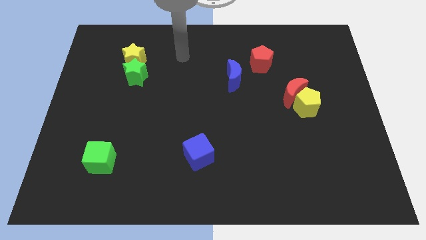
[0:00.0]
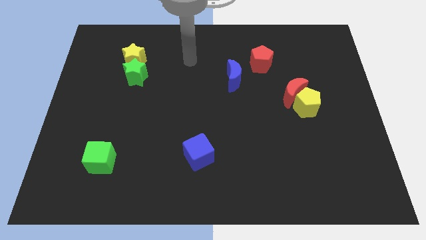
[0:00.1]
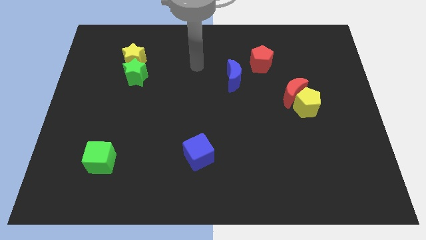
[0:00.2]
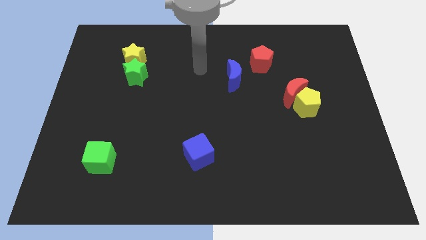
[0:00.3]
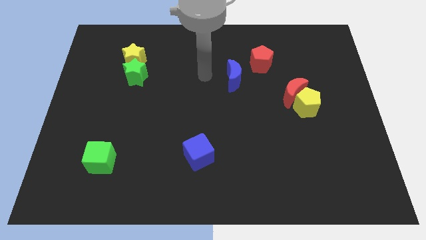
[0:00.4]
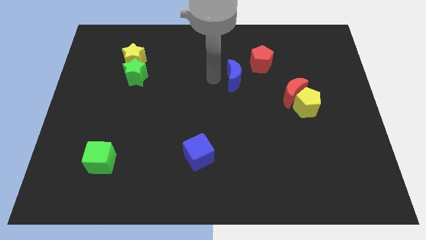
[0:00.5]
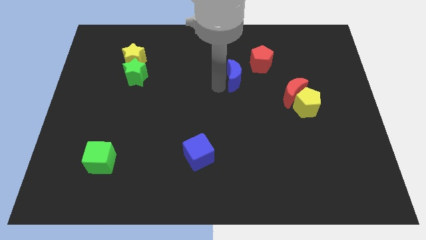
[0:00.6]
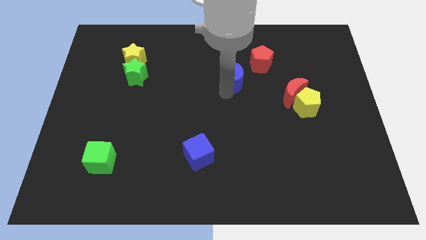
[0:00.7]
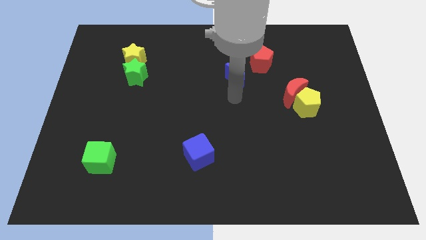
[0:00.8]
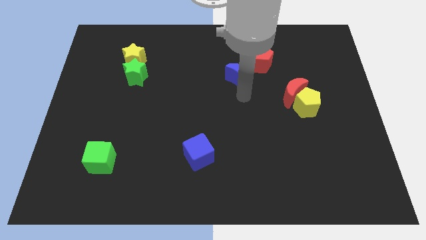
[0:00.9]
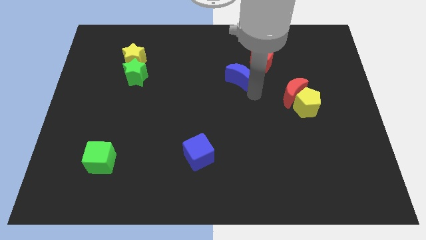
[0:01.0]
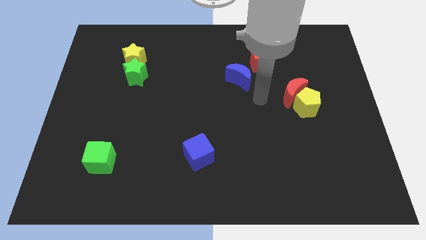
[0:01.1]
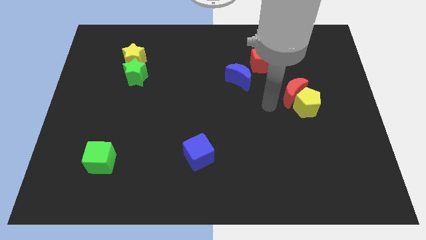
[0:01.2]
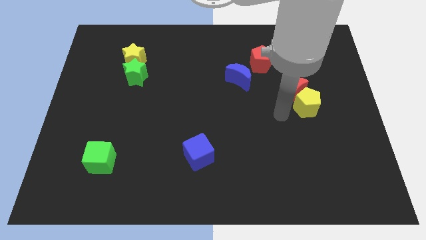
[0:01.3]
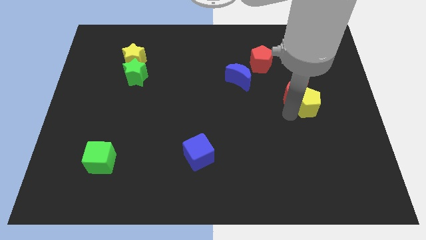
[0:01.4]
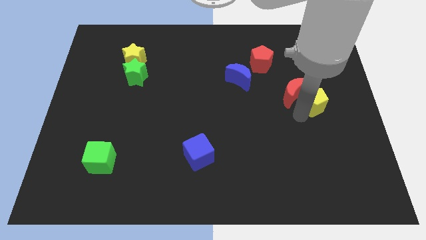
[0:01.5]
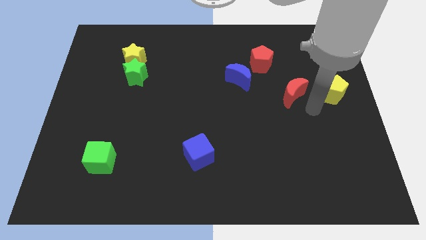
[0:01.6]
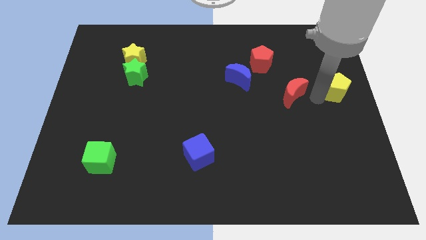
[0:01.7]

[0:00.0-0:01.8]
move the red moon away from the yellow pentagon

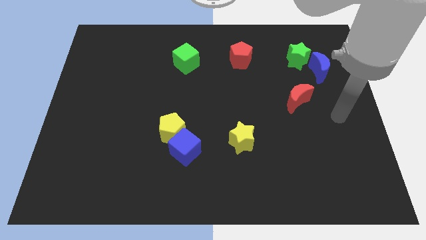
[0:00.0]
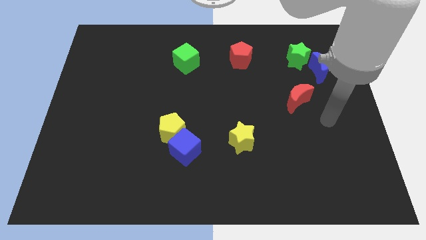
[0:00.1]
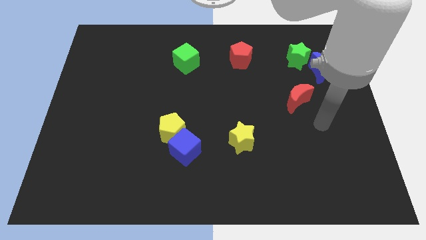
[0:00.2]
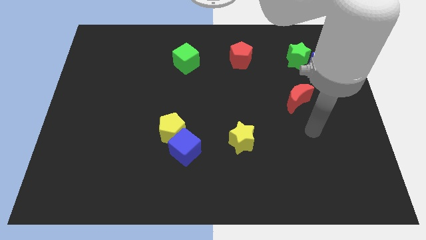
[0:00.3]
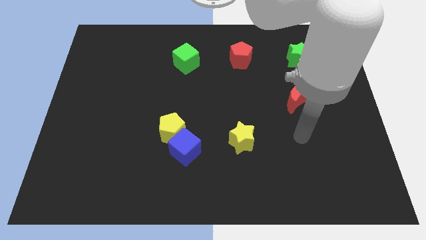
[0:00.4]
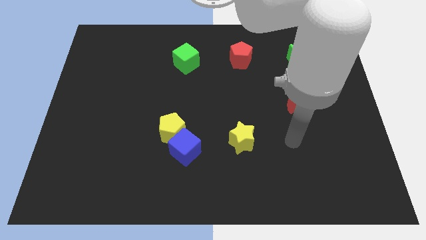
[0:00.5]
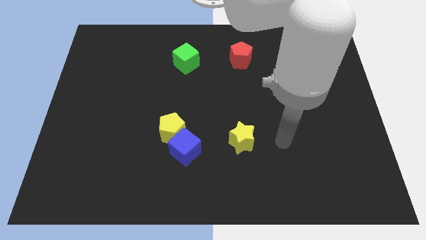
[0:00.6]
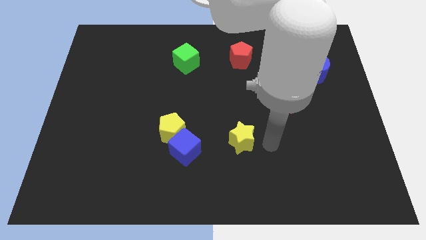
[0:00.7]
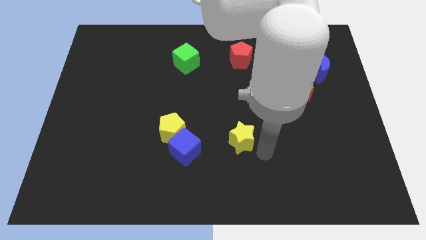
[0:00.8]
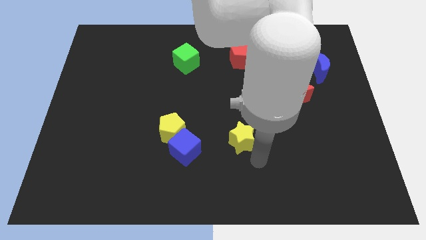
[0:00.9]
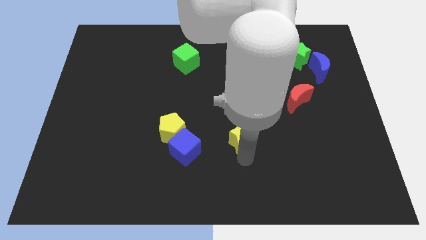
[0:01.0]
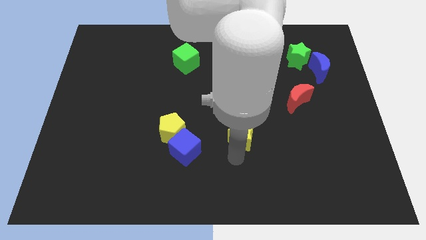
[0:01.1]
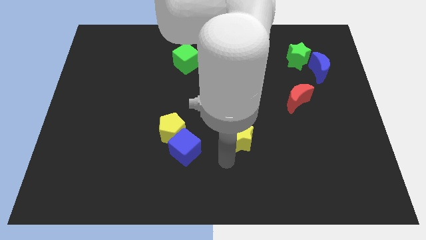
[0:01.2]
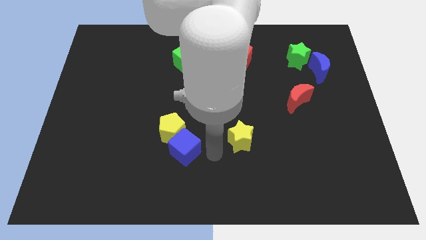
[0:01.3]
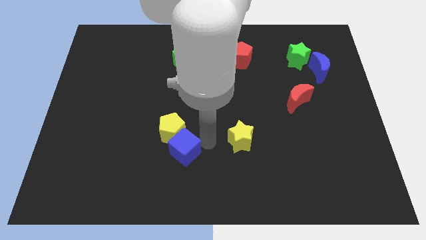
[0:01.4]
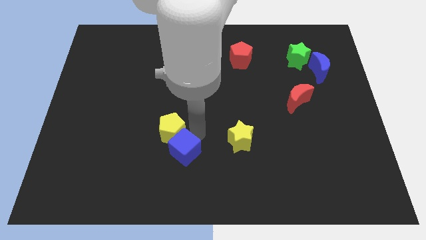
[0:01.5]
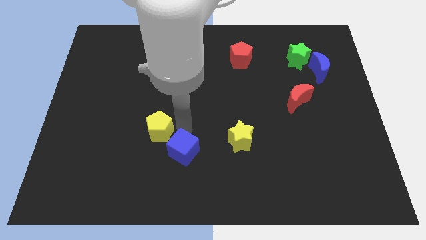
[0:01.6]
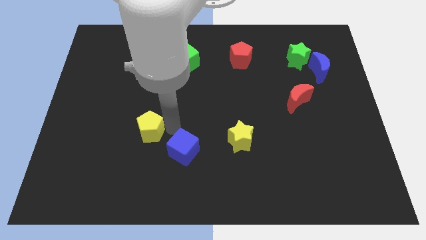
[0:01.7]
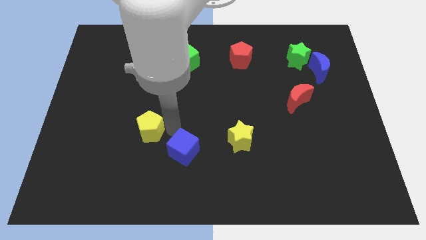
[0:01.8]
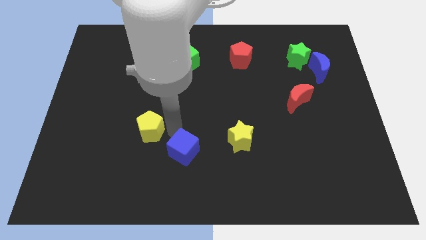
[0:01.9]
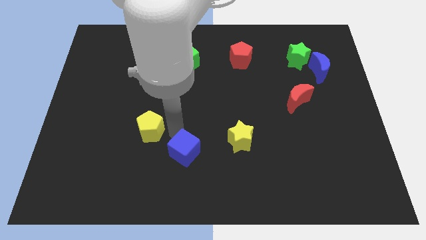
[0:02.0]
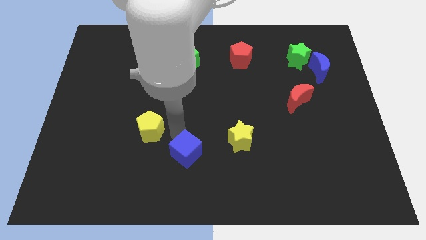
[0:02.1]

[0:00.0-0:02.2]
pull the blue cube apart from the yellow pentagon

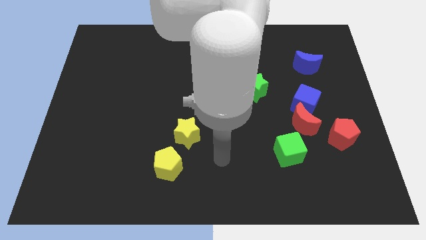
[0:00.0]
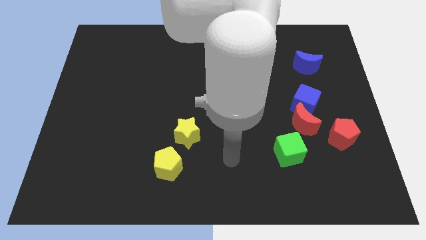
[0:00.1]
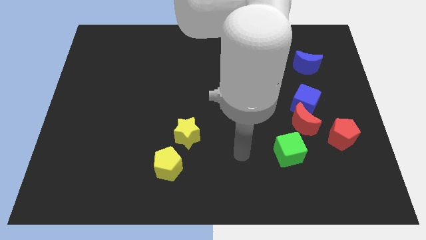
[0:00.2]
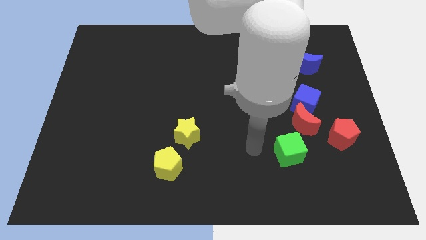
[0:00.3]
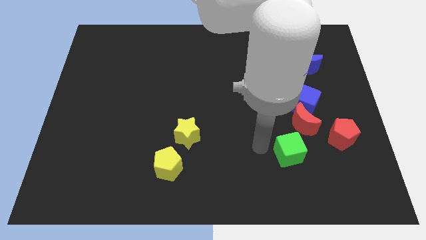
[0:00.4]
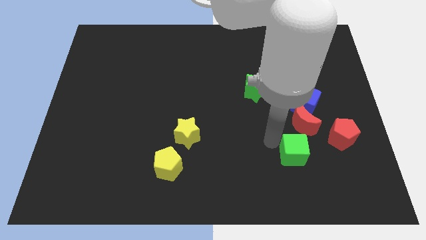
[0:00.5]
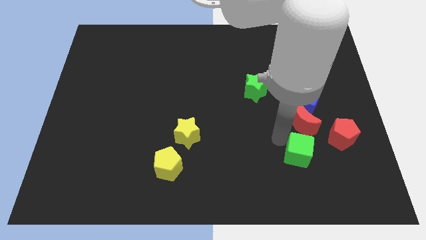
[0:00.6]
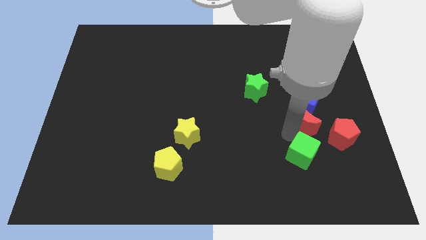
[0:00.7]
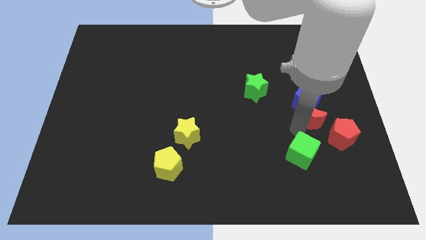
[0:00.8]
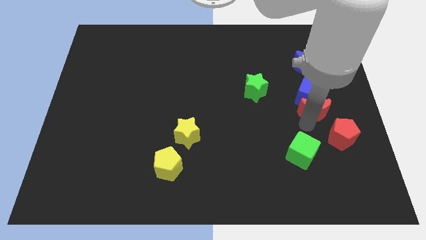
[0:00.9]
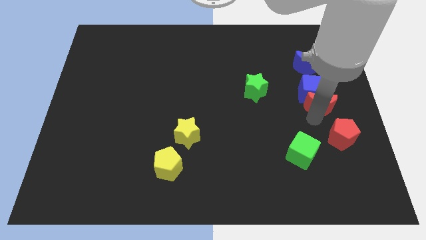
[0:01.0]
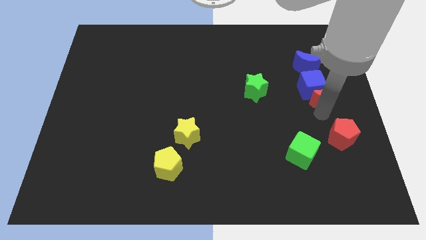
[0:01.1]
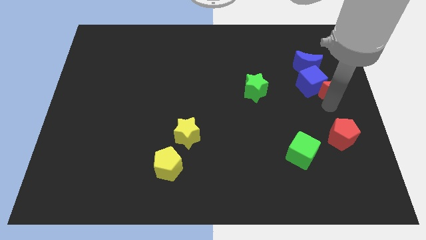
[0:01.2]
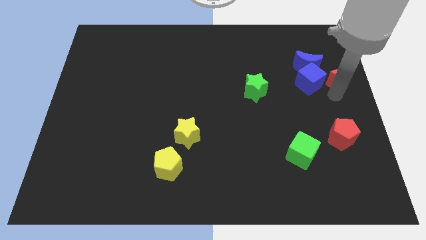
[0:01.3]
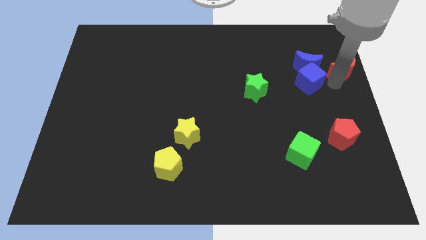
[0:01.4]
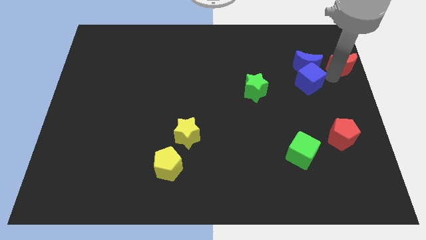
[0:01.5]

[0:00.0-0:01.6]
move the blue cube away from the red moon

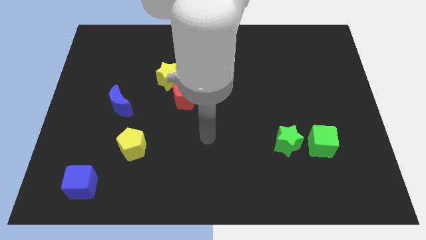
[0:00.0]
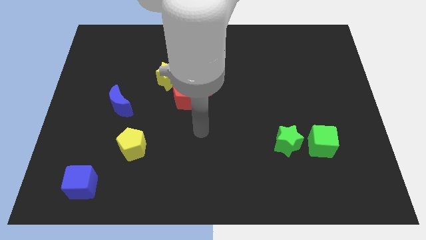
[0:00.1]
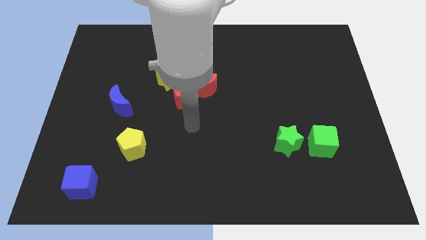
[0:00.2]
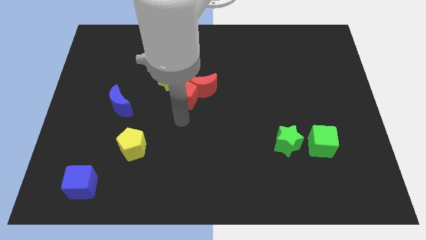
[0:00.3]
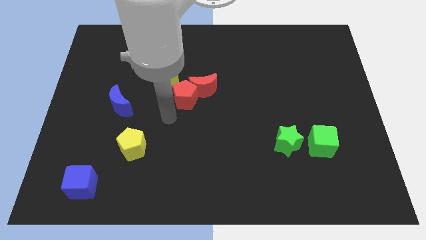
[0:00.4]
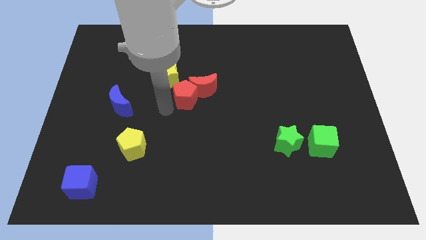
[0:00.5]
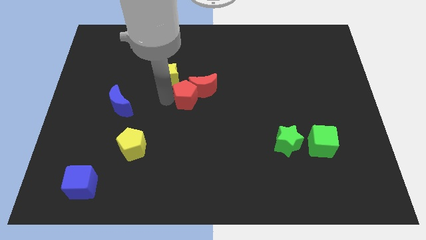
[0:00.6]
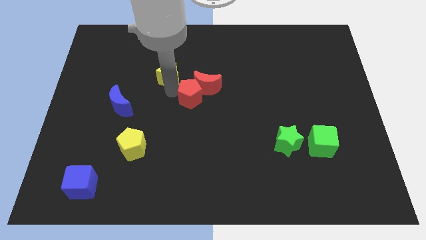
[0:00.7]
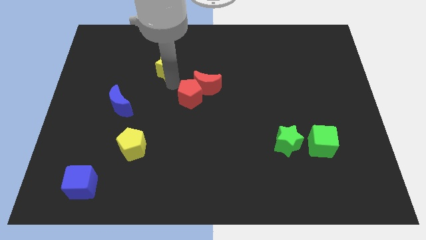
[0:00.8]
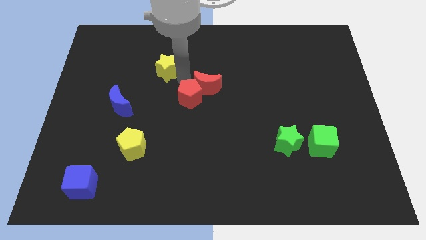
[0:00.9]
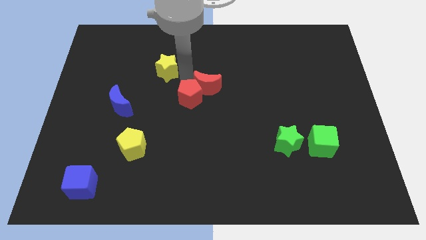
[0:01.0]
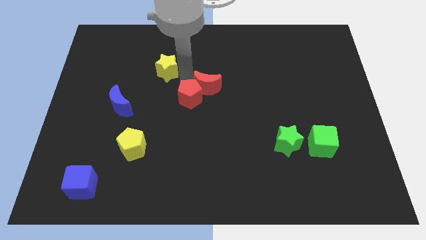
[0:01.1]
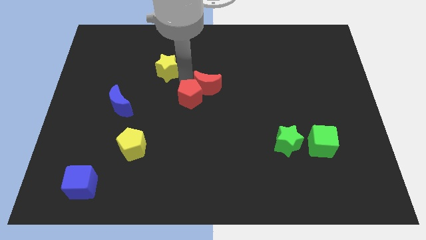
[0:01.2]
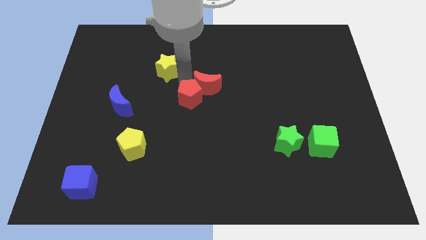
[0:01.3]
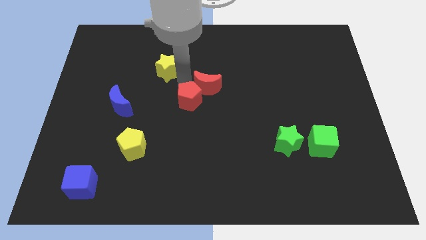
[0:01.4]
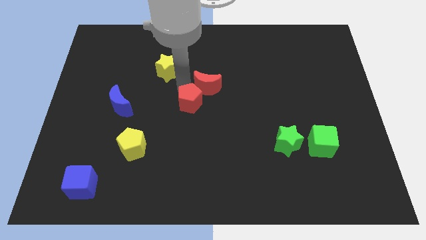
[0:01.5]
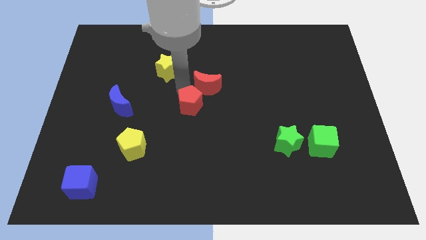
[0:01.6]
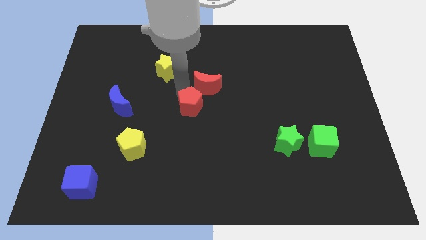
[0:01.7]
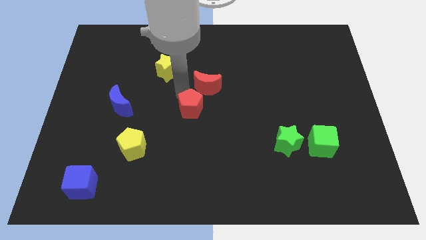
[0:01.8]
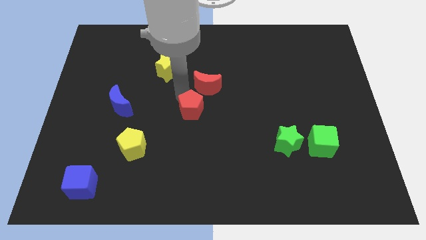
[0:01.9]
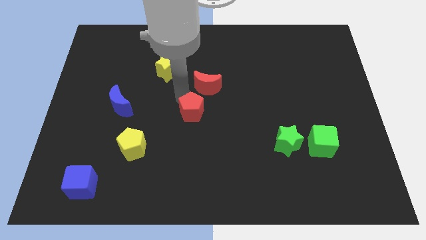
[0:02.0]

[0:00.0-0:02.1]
separate the red pentagon from the red moon and yellow star

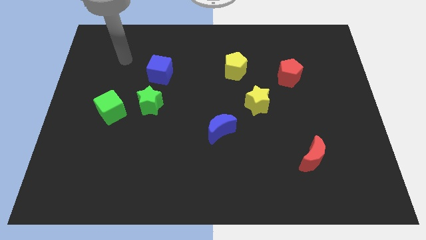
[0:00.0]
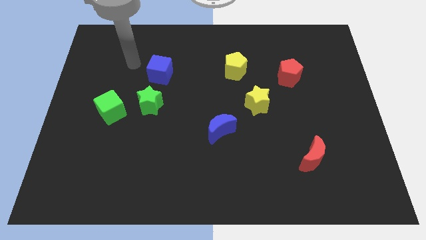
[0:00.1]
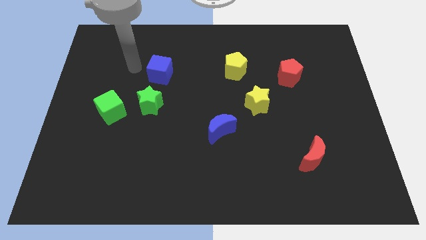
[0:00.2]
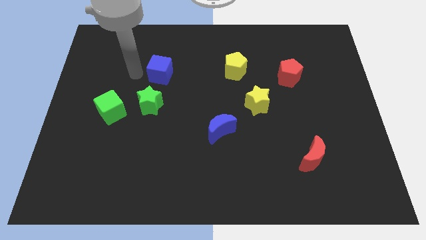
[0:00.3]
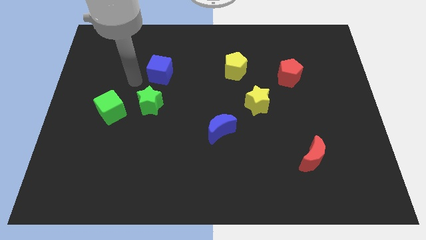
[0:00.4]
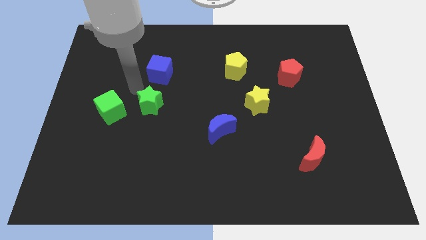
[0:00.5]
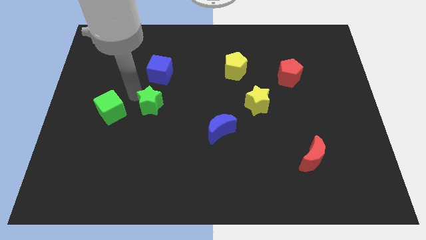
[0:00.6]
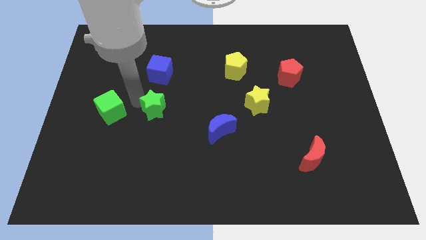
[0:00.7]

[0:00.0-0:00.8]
pull the green cube apart from the green star

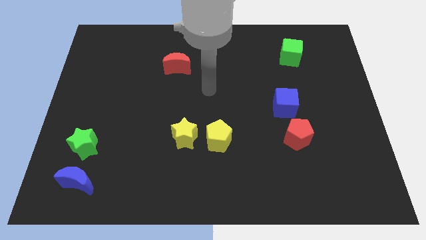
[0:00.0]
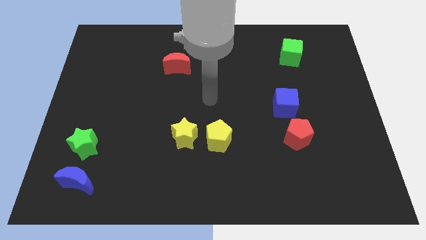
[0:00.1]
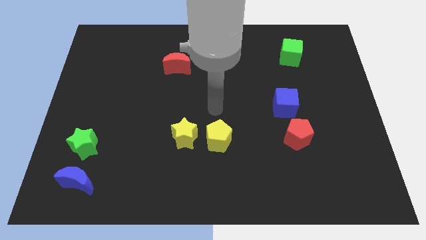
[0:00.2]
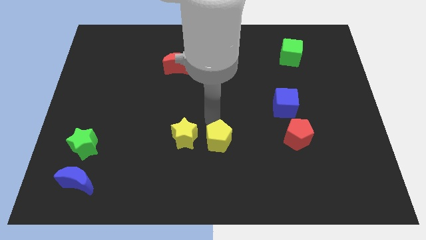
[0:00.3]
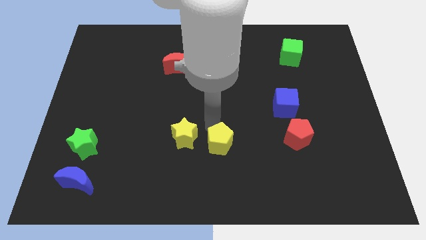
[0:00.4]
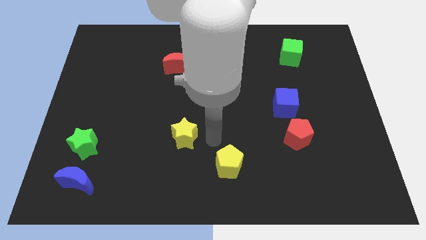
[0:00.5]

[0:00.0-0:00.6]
separate the yellow star from the yellow pentagon
